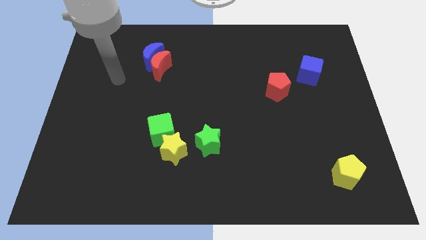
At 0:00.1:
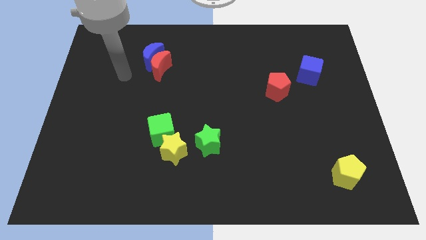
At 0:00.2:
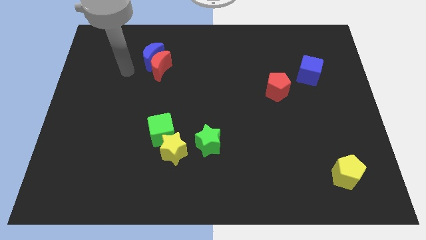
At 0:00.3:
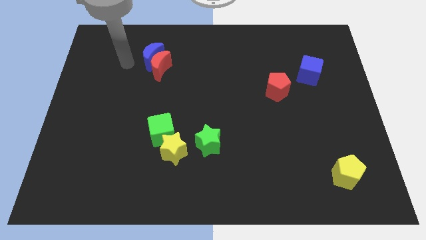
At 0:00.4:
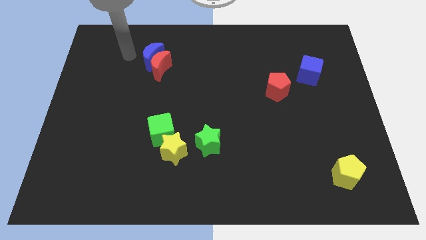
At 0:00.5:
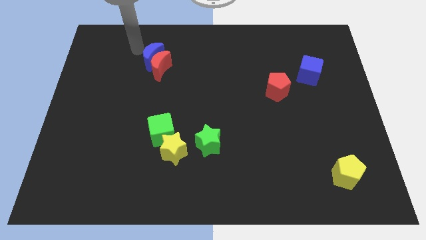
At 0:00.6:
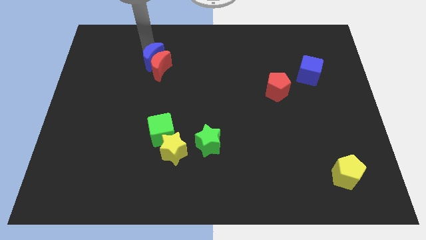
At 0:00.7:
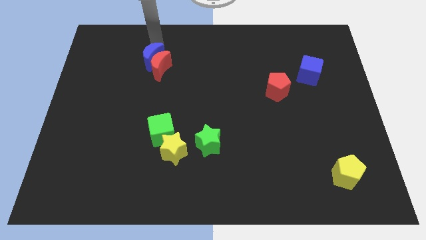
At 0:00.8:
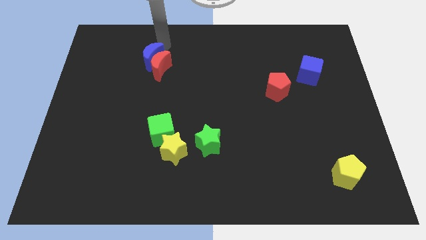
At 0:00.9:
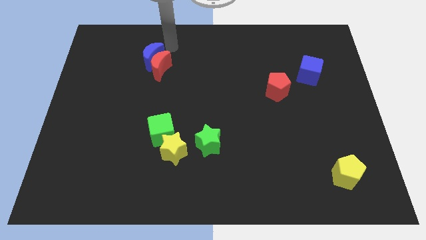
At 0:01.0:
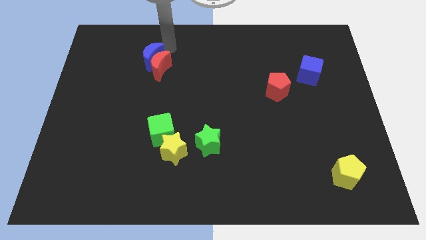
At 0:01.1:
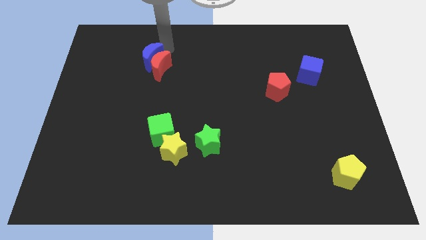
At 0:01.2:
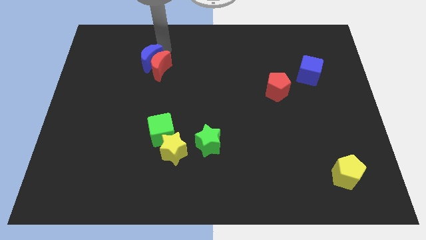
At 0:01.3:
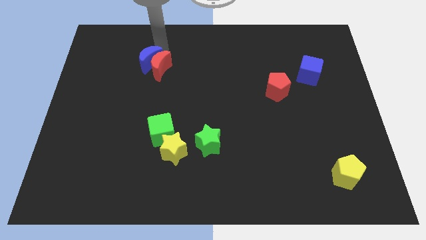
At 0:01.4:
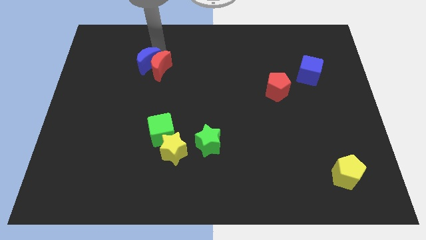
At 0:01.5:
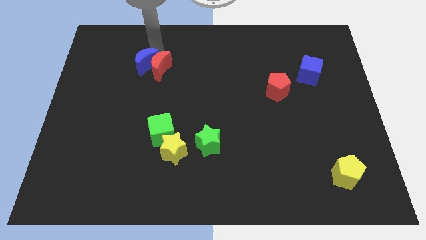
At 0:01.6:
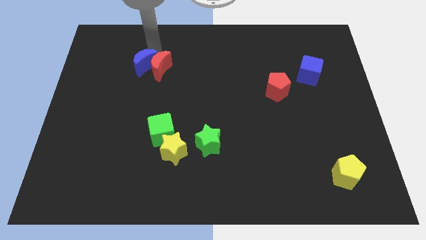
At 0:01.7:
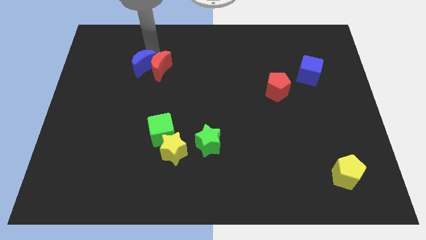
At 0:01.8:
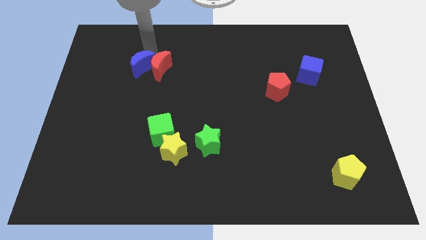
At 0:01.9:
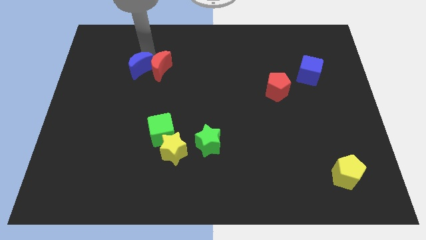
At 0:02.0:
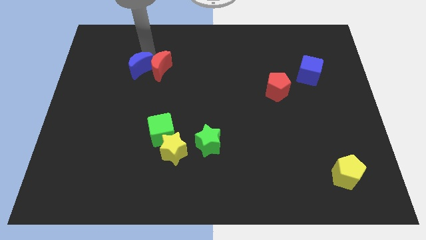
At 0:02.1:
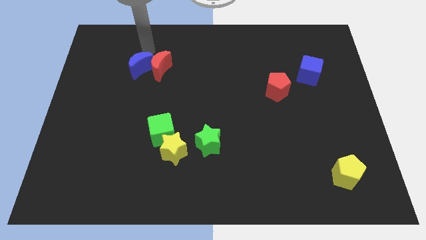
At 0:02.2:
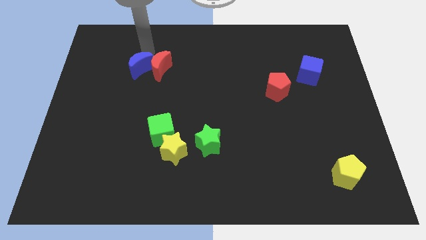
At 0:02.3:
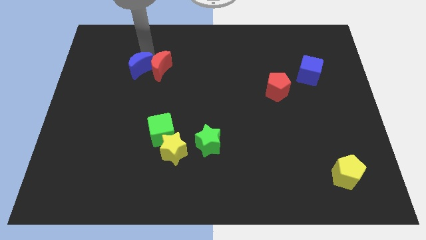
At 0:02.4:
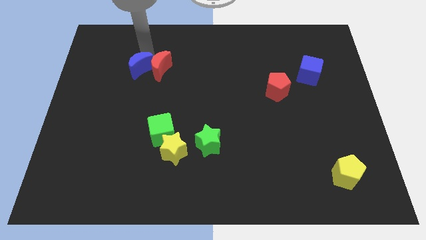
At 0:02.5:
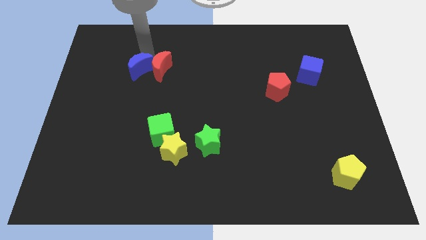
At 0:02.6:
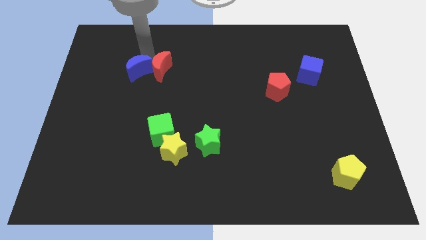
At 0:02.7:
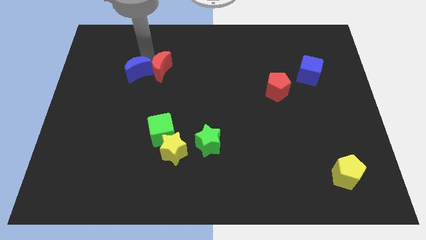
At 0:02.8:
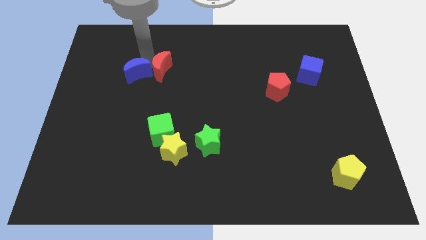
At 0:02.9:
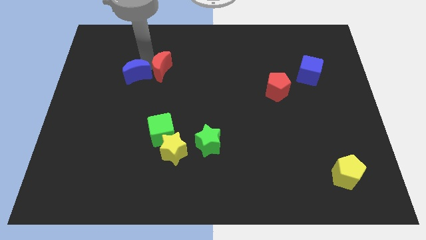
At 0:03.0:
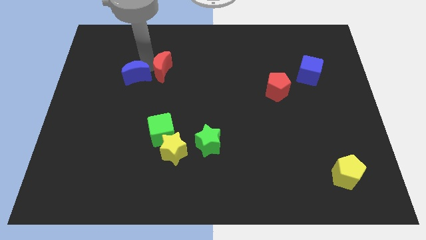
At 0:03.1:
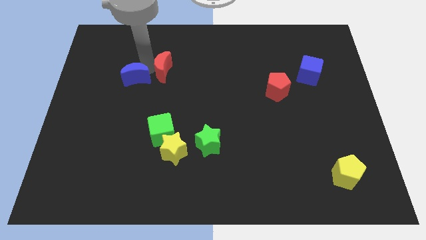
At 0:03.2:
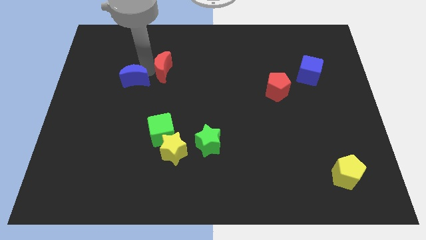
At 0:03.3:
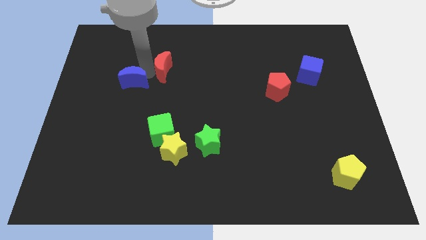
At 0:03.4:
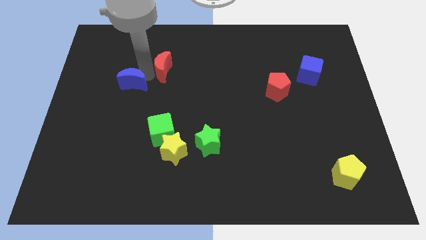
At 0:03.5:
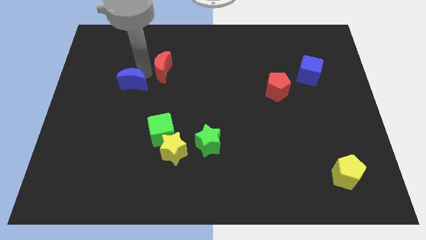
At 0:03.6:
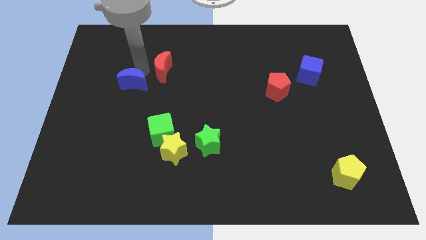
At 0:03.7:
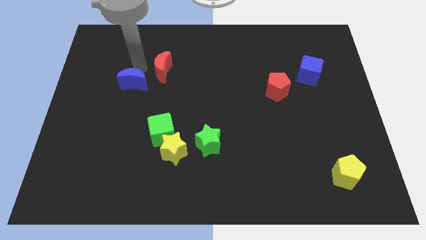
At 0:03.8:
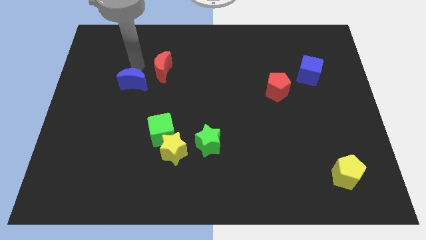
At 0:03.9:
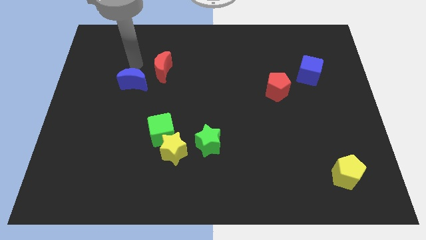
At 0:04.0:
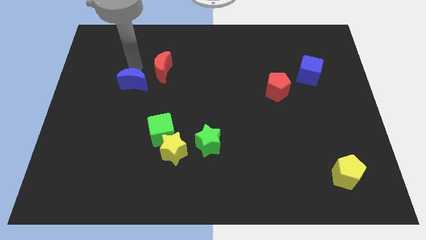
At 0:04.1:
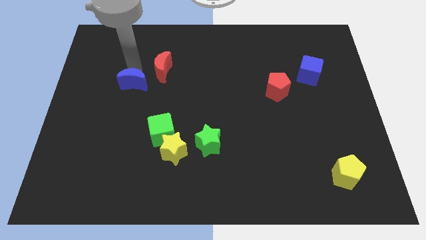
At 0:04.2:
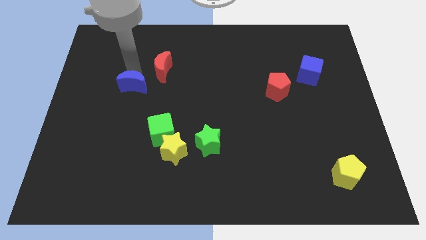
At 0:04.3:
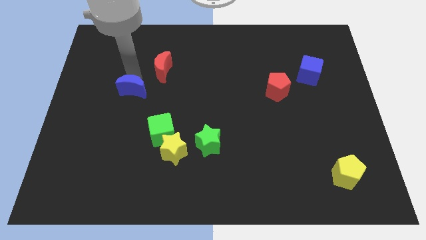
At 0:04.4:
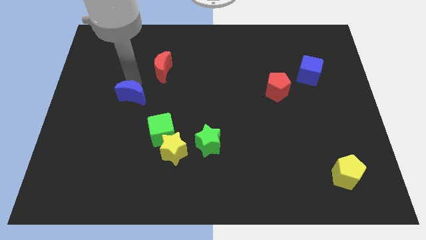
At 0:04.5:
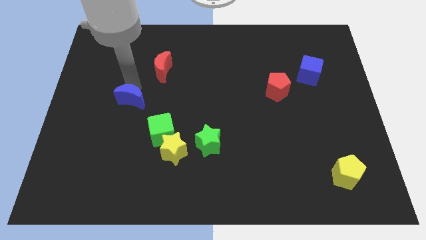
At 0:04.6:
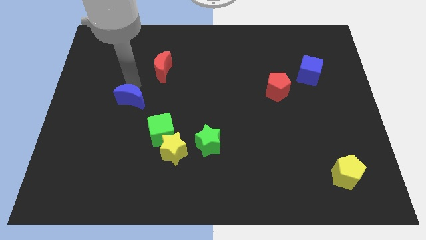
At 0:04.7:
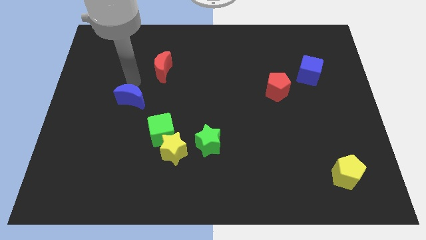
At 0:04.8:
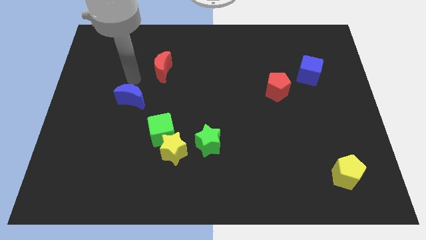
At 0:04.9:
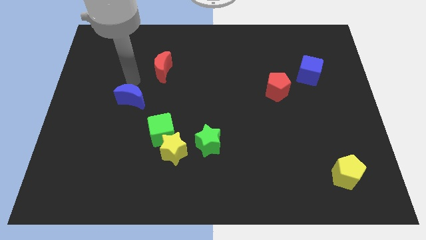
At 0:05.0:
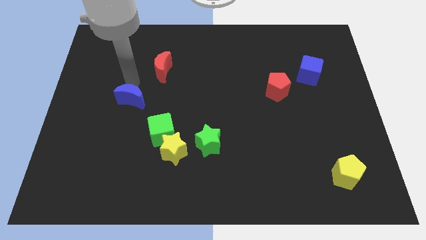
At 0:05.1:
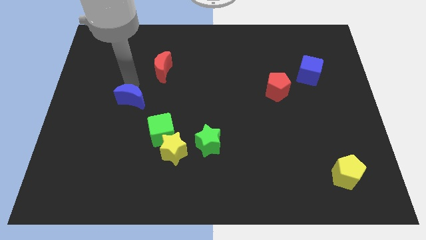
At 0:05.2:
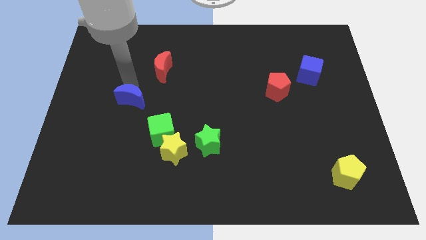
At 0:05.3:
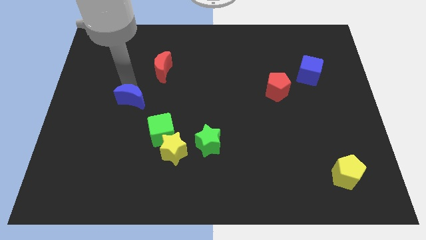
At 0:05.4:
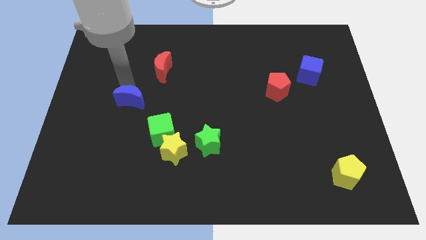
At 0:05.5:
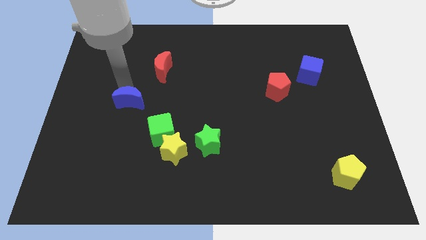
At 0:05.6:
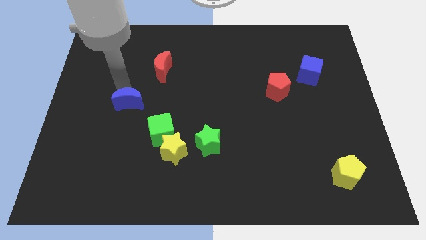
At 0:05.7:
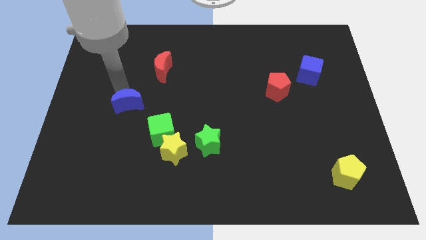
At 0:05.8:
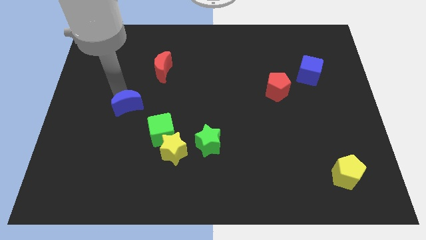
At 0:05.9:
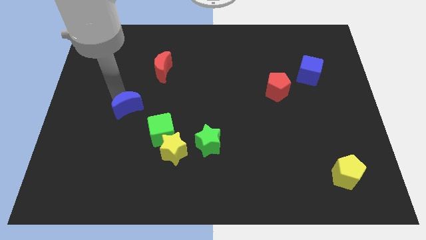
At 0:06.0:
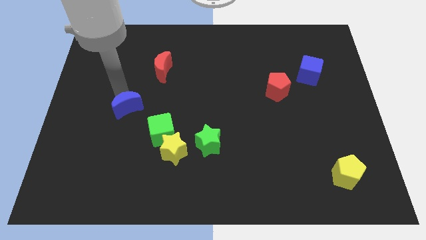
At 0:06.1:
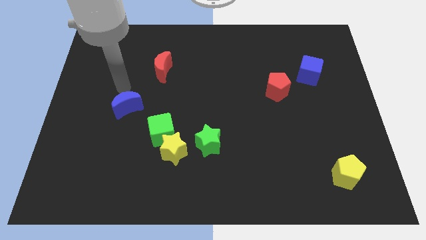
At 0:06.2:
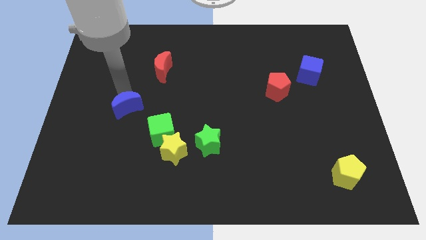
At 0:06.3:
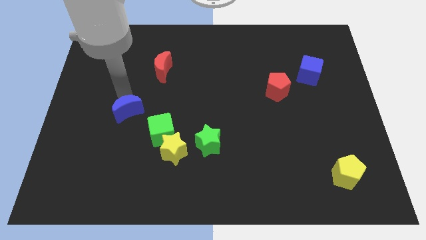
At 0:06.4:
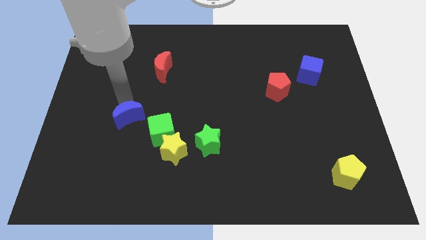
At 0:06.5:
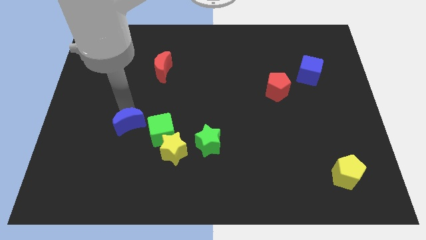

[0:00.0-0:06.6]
push the blue moon down

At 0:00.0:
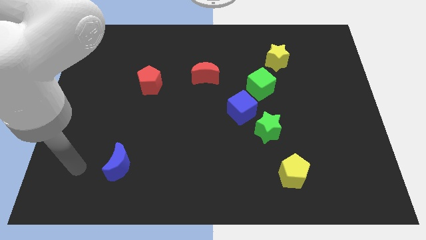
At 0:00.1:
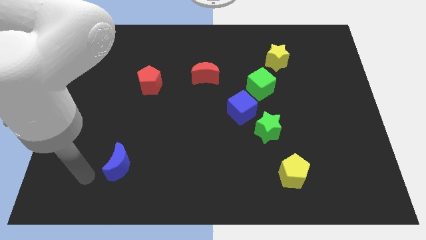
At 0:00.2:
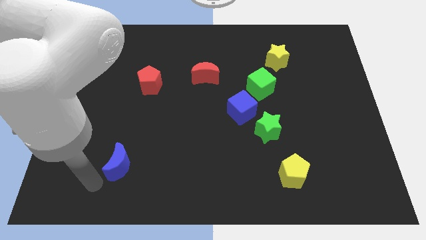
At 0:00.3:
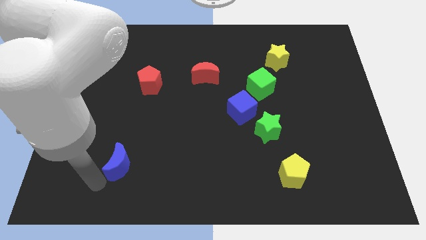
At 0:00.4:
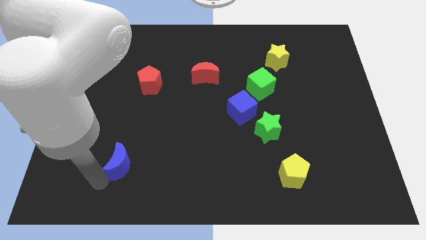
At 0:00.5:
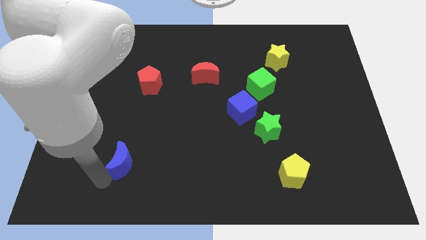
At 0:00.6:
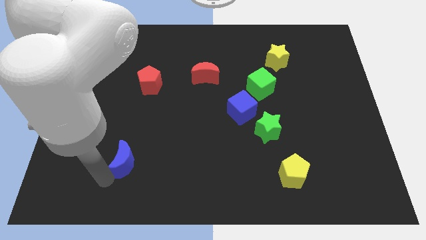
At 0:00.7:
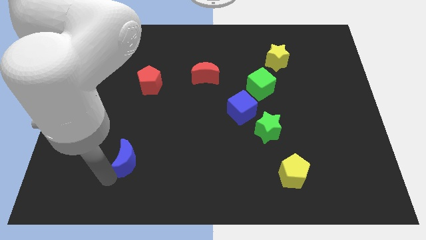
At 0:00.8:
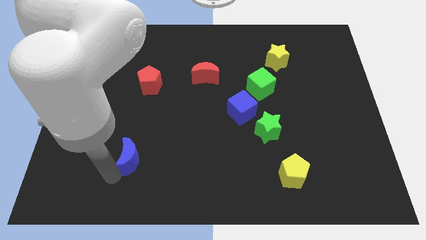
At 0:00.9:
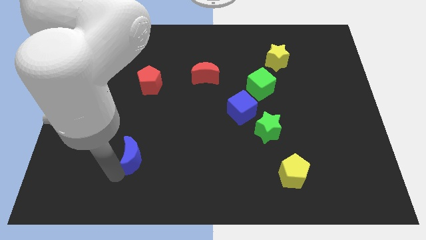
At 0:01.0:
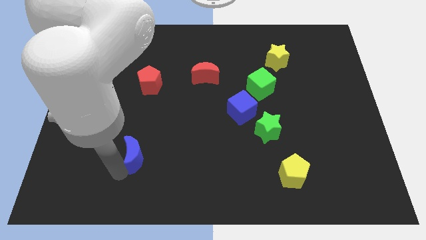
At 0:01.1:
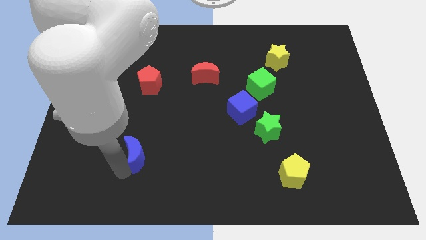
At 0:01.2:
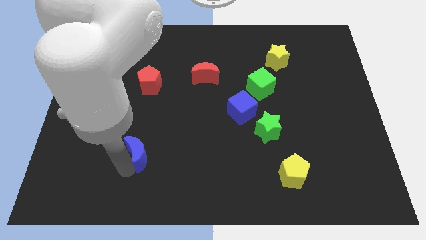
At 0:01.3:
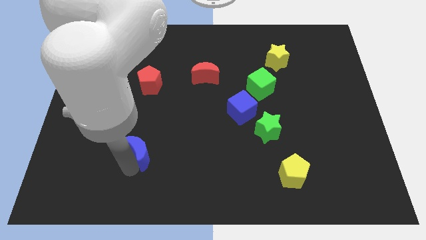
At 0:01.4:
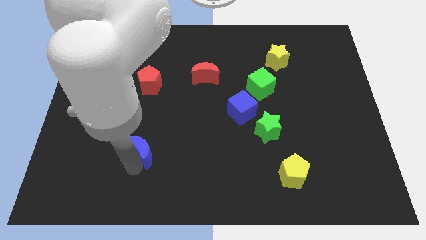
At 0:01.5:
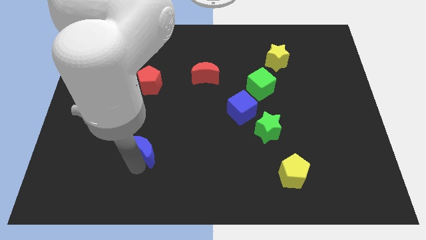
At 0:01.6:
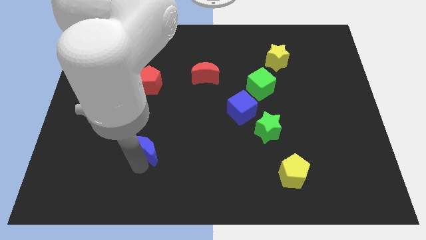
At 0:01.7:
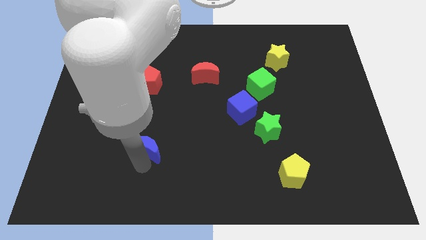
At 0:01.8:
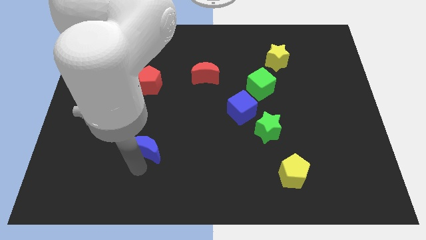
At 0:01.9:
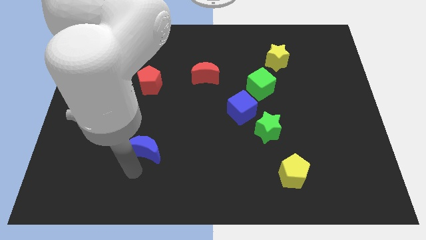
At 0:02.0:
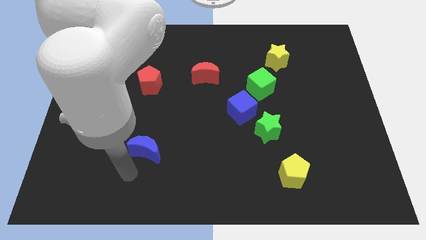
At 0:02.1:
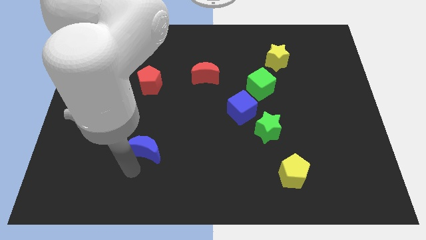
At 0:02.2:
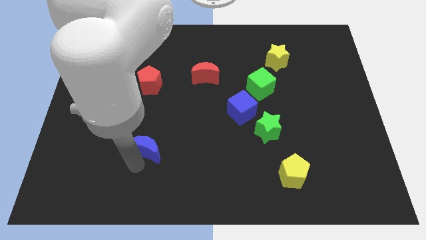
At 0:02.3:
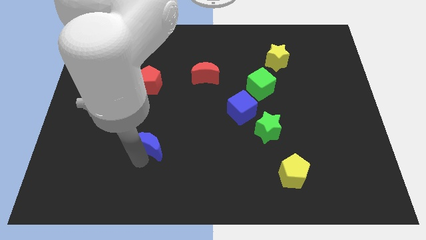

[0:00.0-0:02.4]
push the blue moon a little up and then to the right
